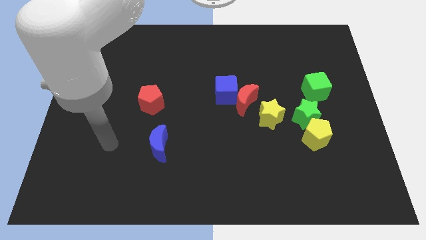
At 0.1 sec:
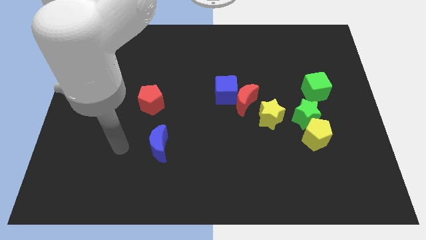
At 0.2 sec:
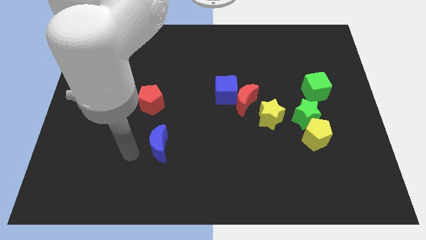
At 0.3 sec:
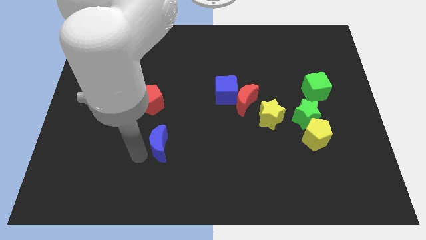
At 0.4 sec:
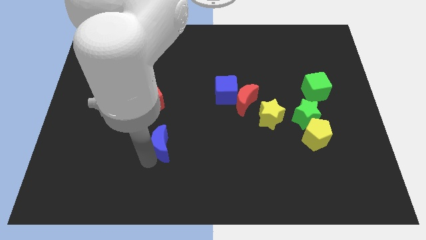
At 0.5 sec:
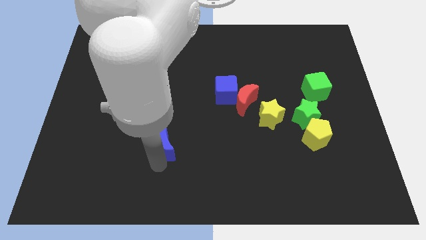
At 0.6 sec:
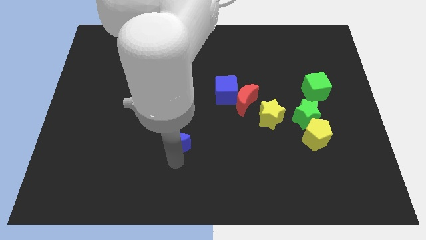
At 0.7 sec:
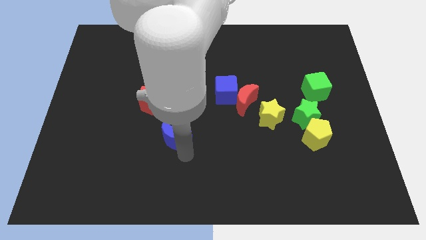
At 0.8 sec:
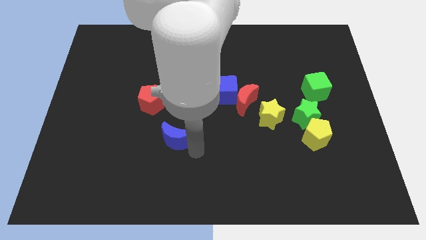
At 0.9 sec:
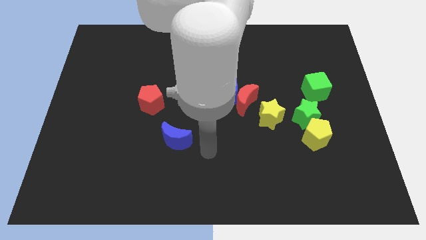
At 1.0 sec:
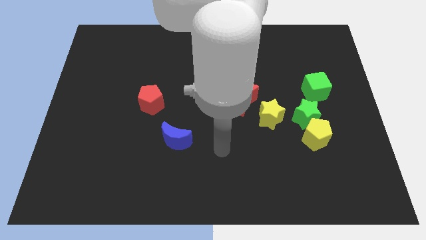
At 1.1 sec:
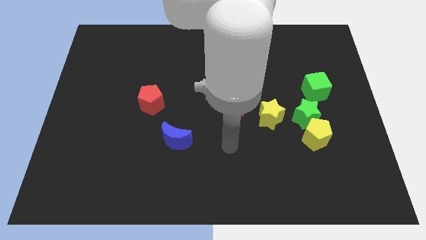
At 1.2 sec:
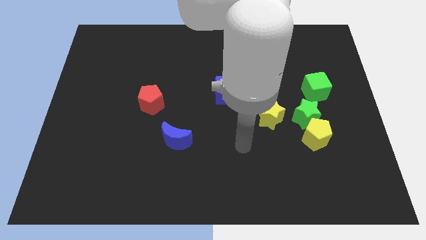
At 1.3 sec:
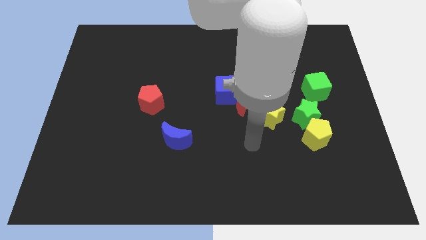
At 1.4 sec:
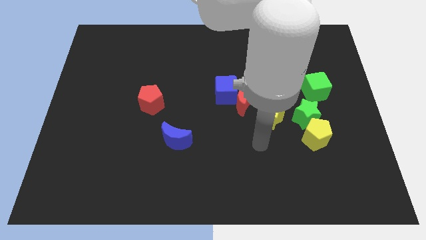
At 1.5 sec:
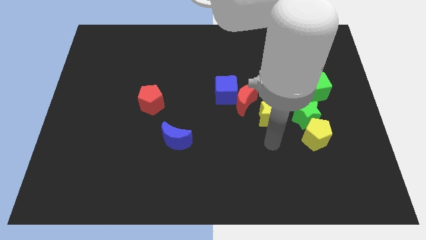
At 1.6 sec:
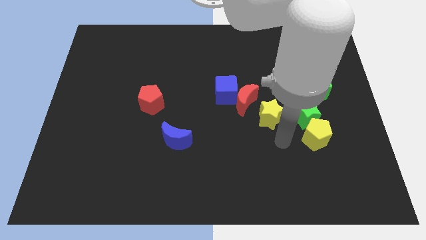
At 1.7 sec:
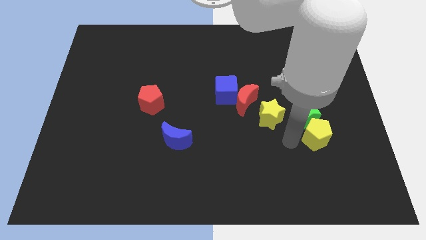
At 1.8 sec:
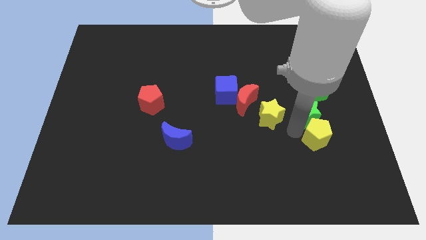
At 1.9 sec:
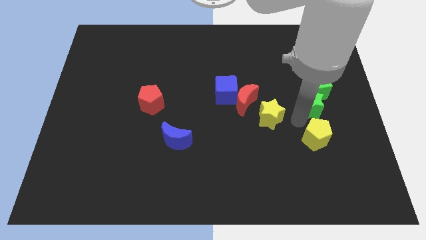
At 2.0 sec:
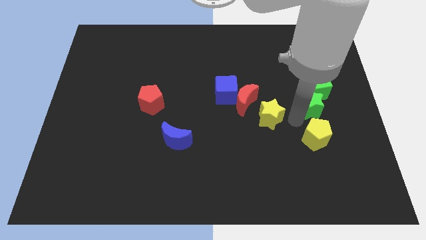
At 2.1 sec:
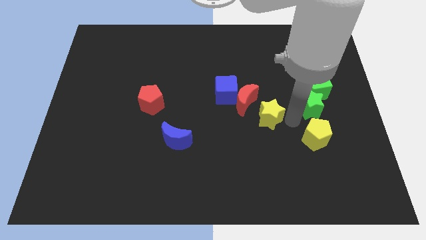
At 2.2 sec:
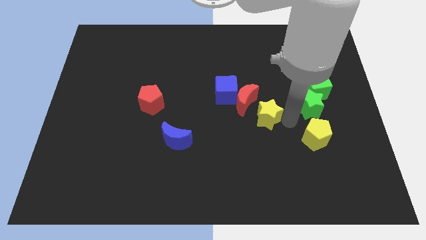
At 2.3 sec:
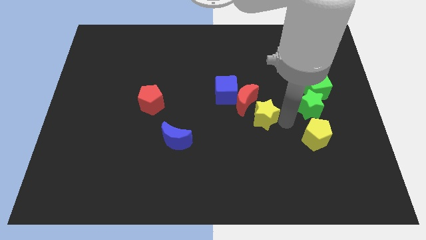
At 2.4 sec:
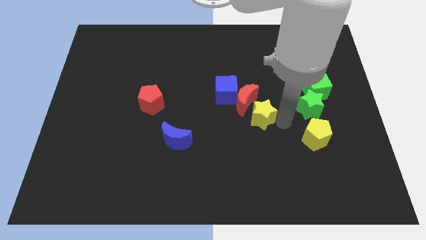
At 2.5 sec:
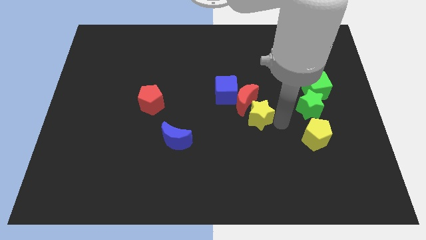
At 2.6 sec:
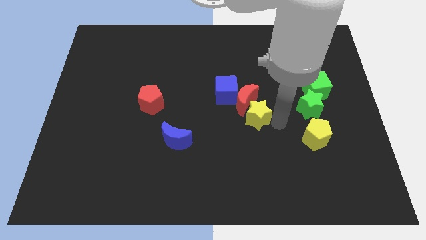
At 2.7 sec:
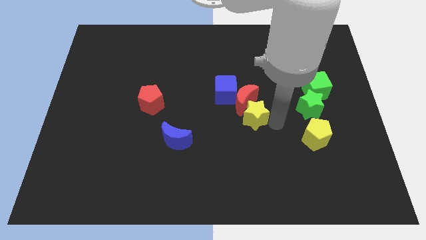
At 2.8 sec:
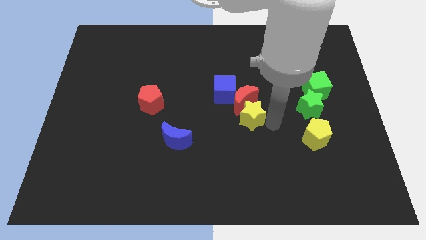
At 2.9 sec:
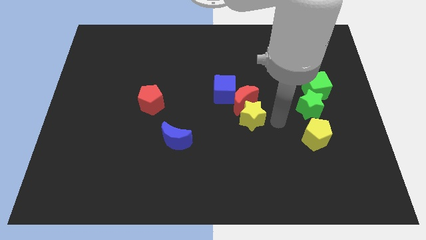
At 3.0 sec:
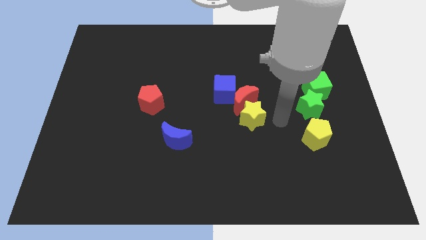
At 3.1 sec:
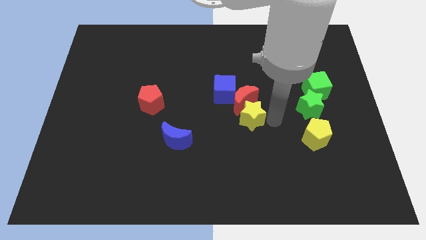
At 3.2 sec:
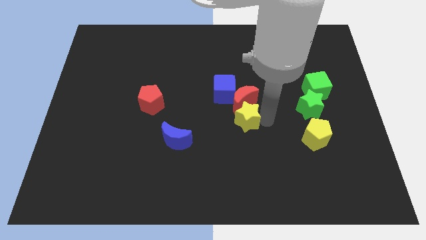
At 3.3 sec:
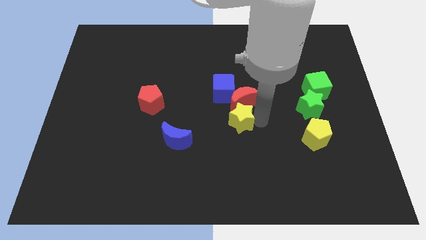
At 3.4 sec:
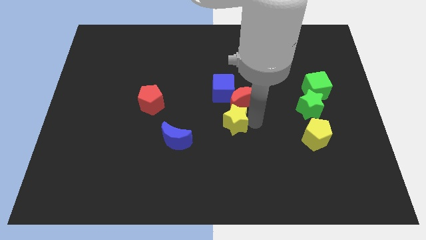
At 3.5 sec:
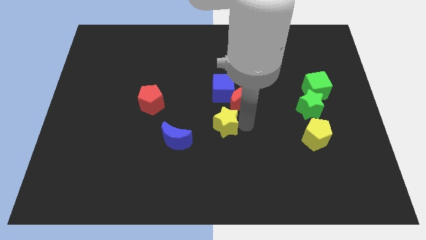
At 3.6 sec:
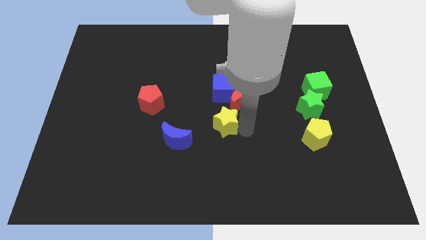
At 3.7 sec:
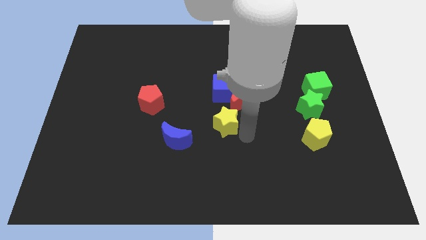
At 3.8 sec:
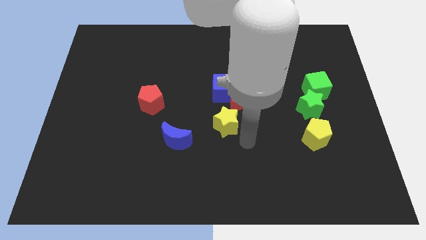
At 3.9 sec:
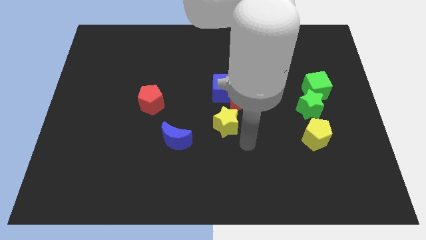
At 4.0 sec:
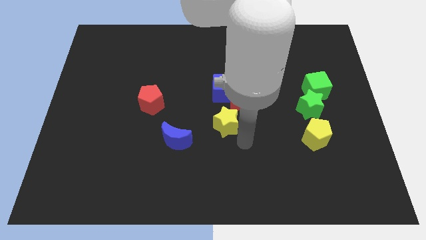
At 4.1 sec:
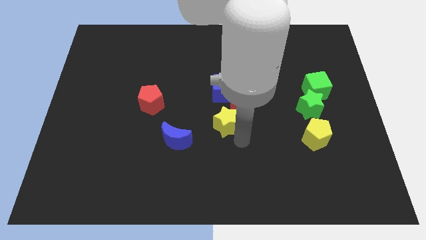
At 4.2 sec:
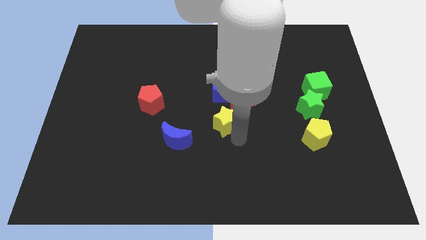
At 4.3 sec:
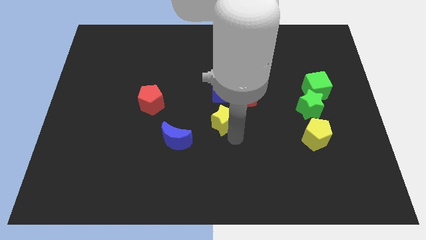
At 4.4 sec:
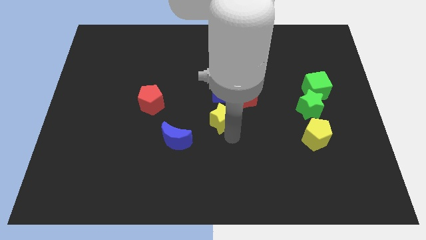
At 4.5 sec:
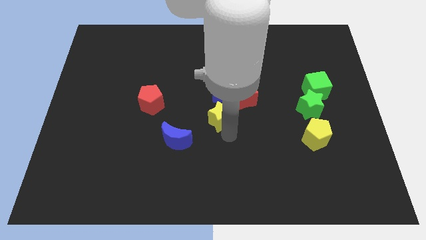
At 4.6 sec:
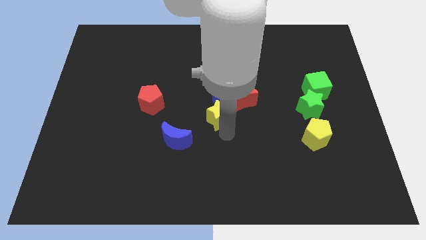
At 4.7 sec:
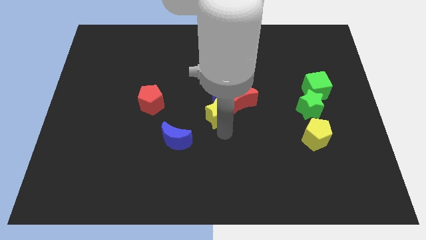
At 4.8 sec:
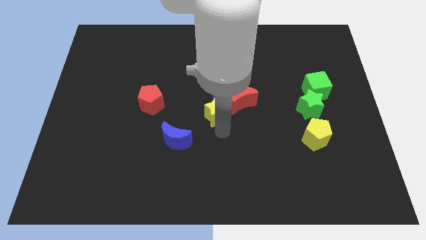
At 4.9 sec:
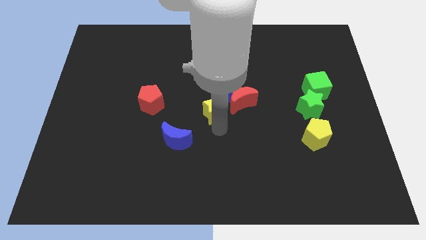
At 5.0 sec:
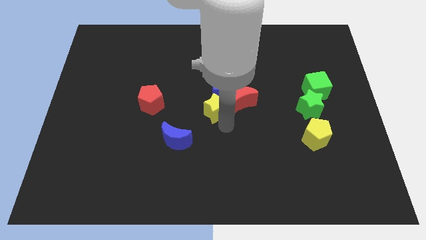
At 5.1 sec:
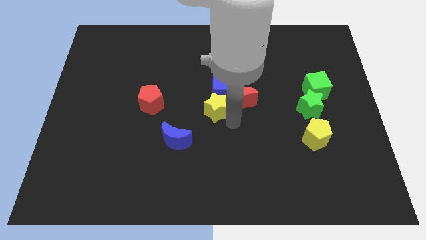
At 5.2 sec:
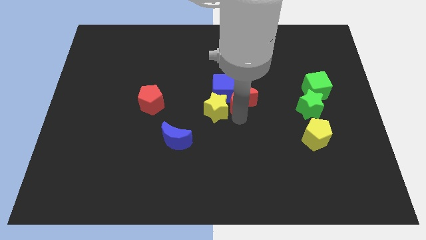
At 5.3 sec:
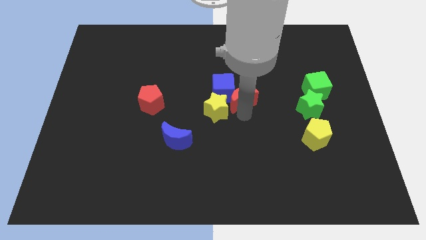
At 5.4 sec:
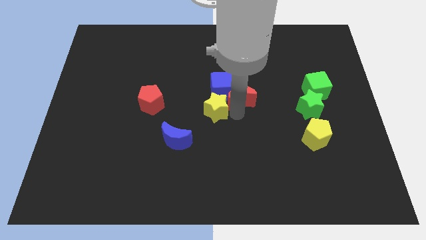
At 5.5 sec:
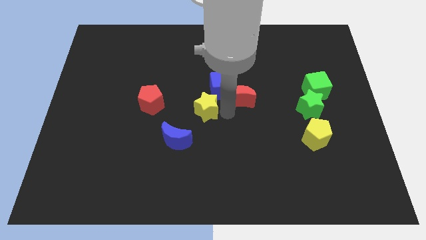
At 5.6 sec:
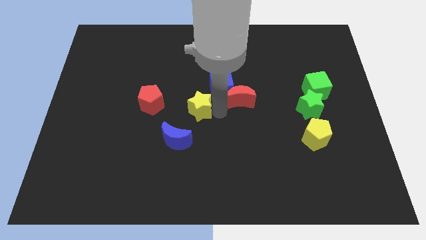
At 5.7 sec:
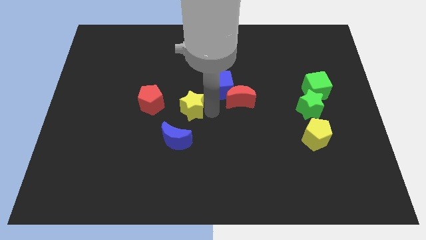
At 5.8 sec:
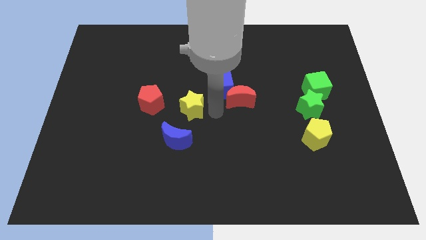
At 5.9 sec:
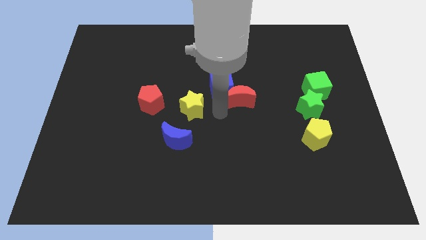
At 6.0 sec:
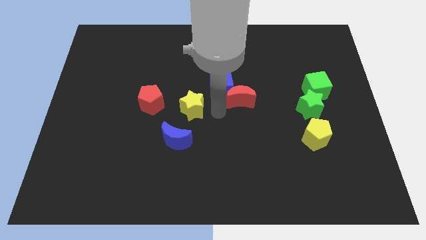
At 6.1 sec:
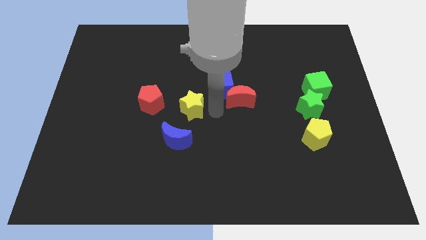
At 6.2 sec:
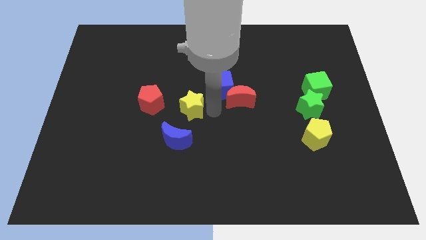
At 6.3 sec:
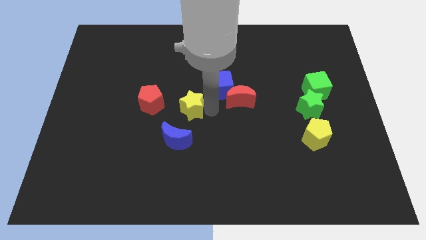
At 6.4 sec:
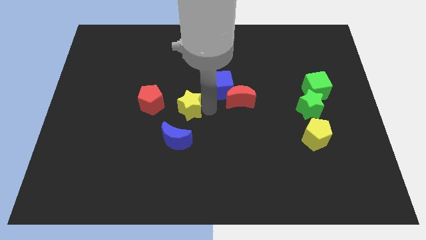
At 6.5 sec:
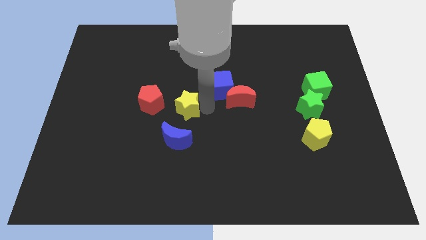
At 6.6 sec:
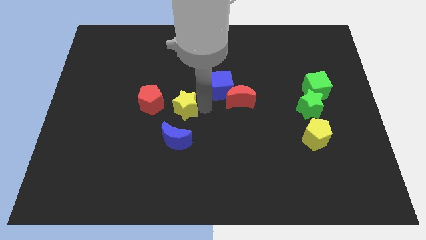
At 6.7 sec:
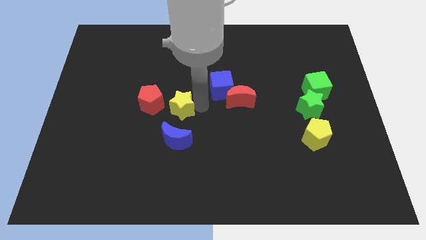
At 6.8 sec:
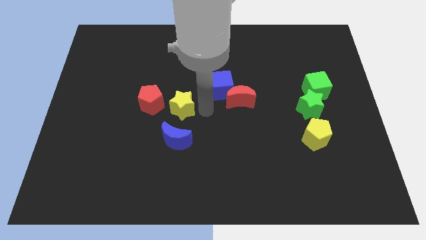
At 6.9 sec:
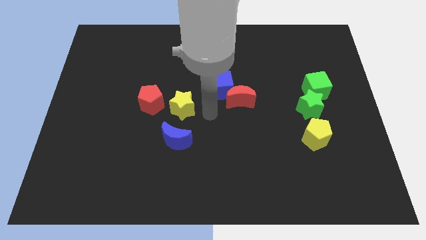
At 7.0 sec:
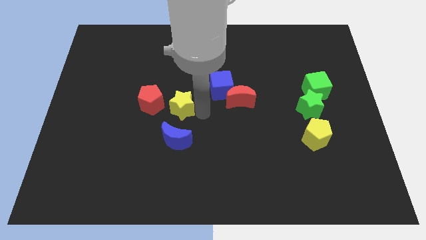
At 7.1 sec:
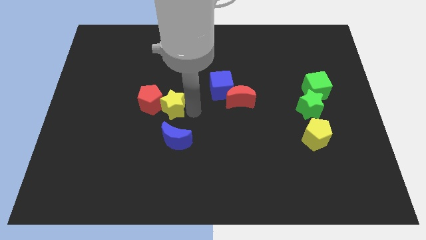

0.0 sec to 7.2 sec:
push the yellow star to the red pentagon
